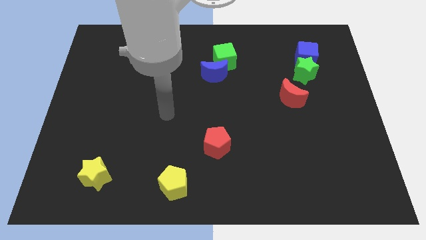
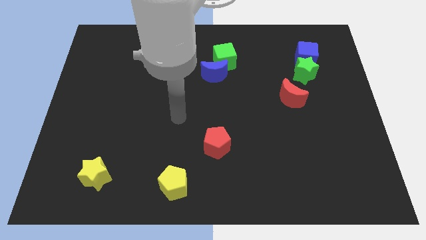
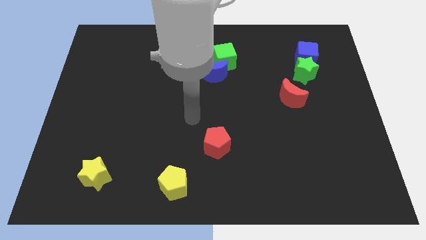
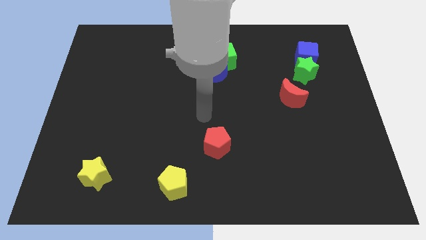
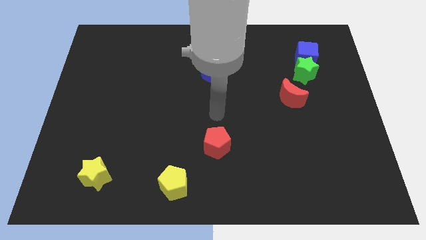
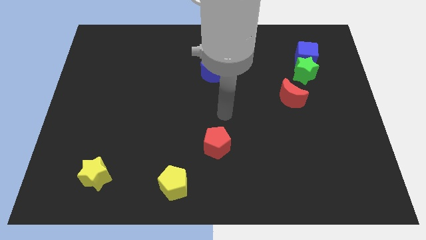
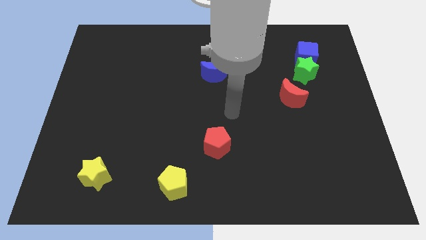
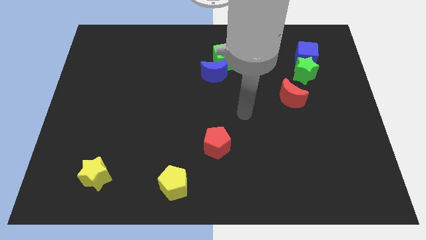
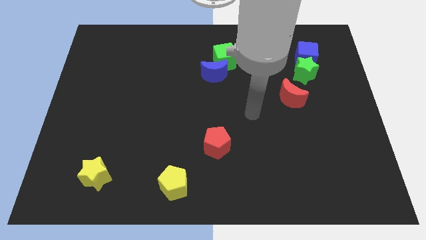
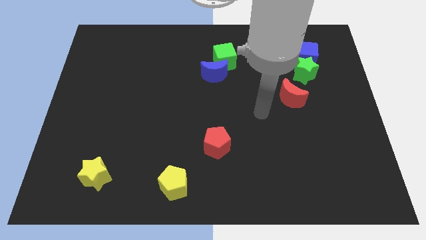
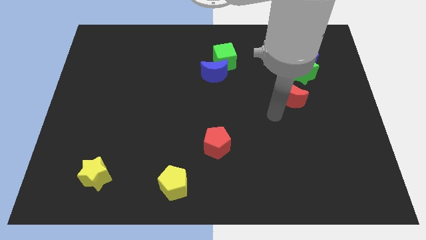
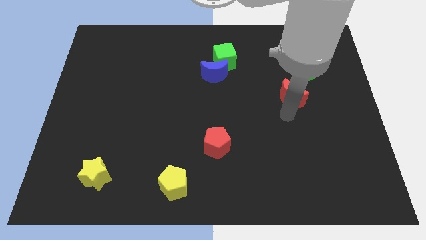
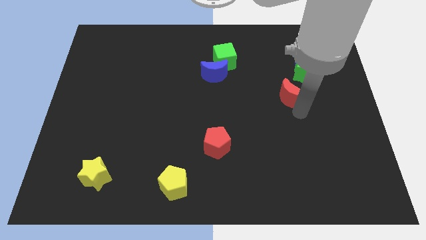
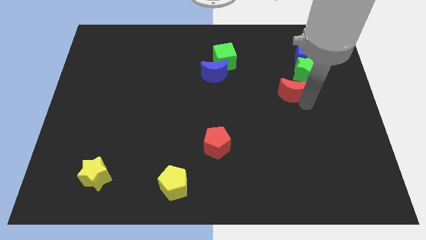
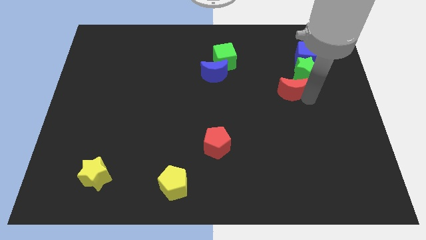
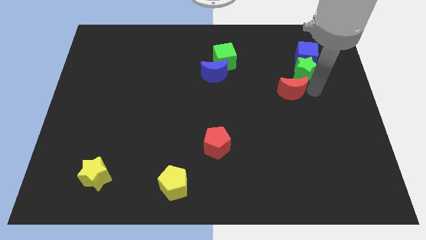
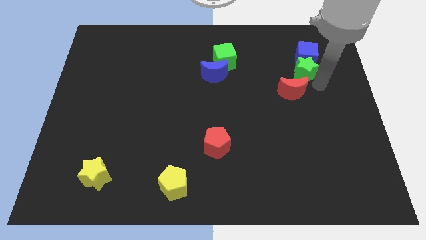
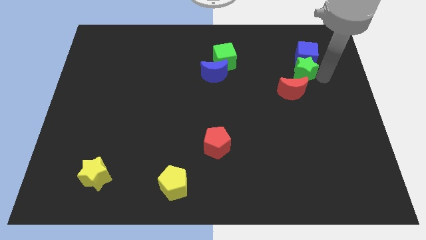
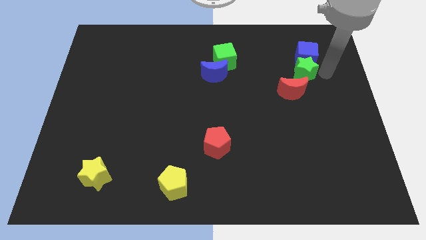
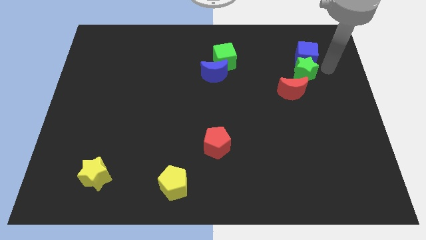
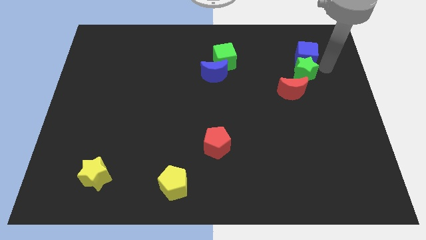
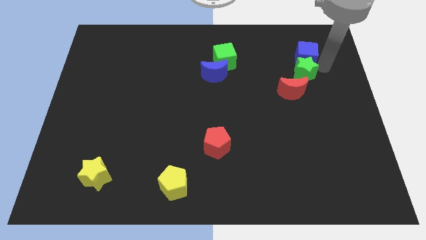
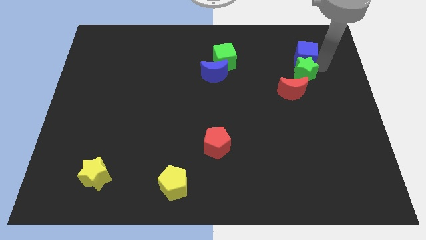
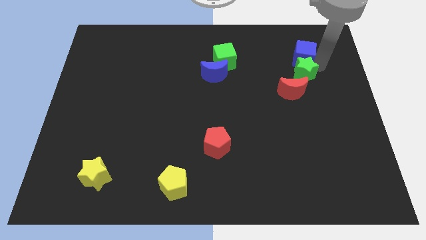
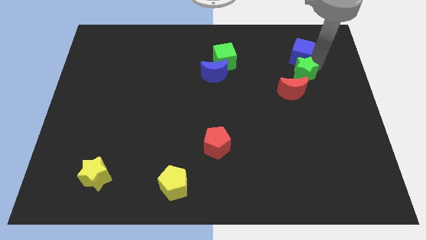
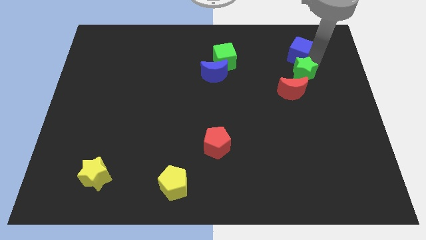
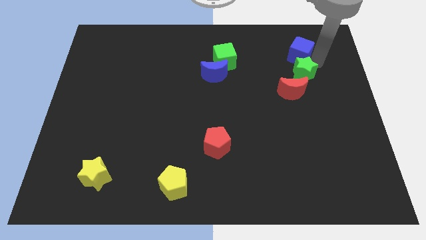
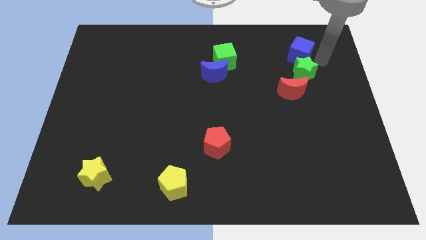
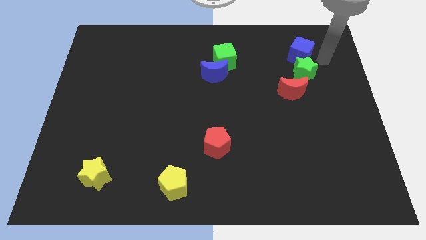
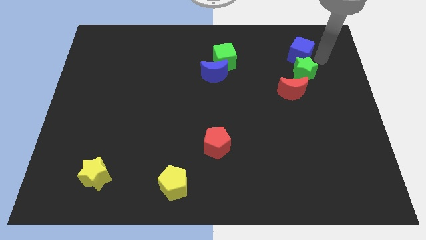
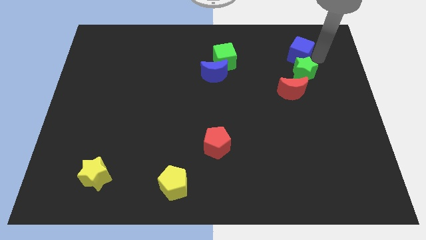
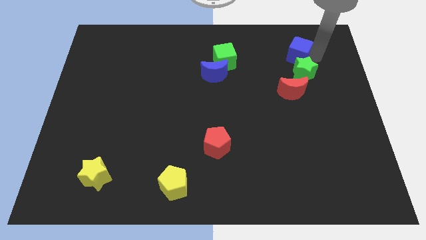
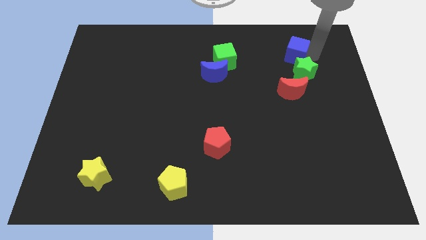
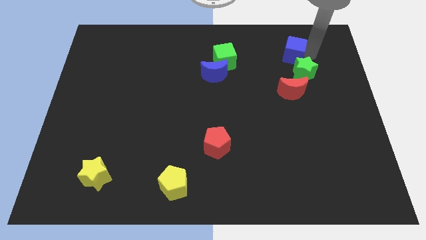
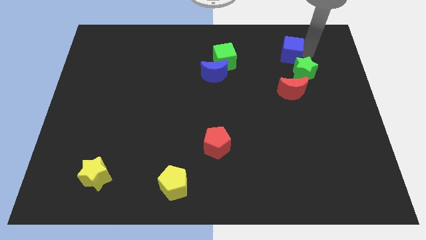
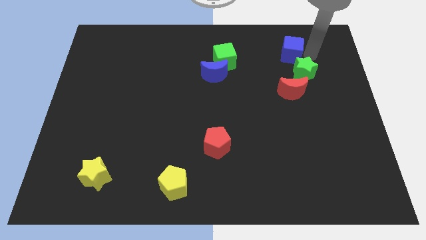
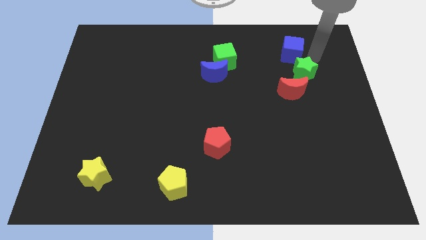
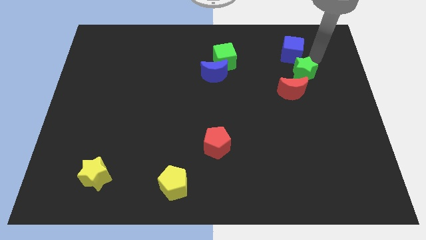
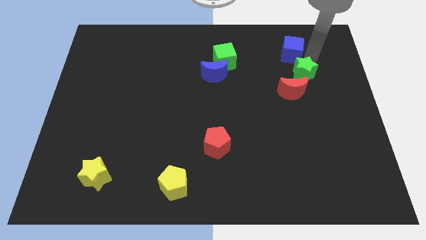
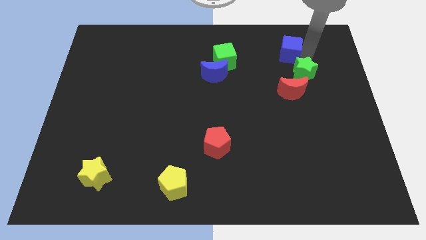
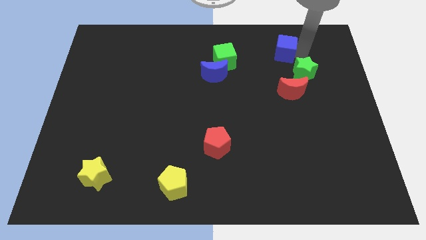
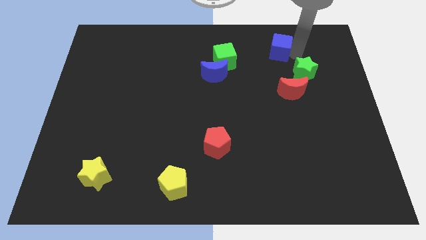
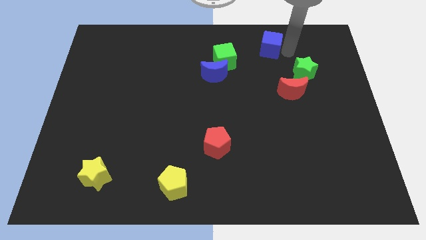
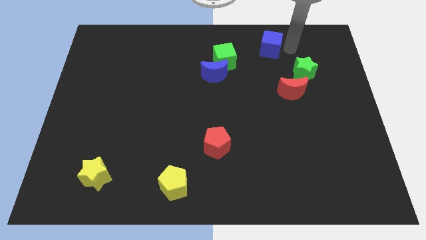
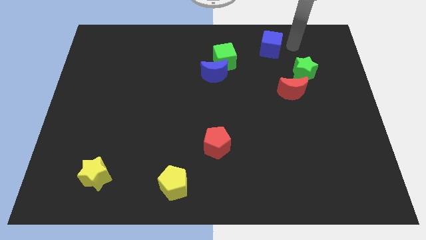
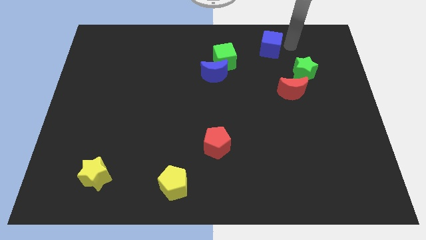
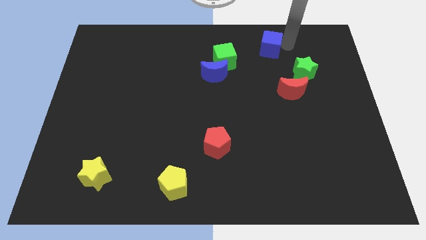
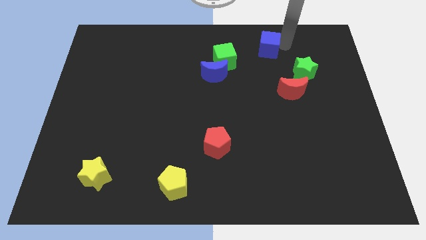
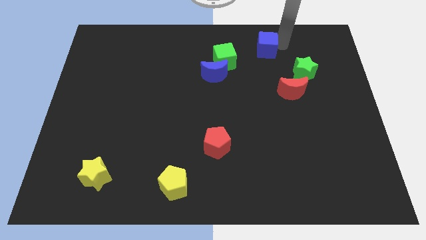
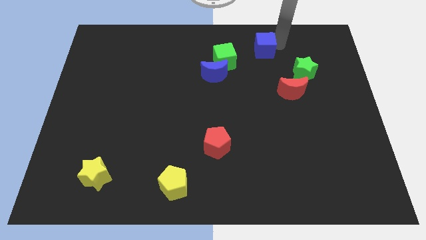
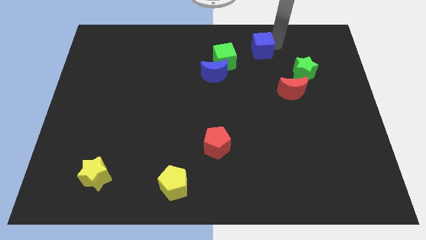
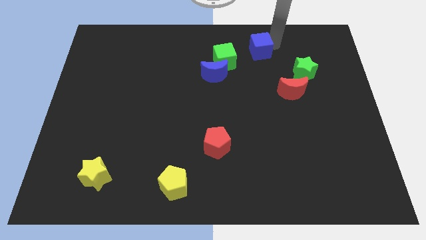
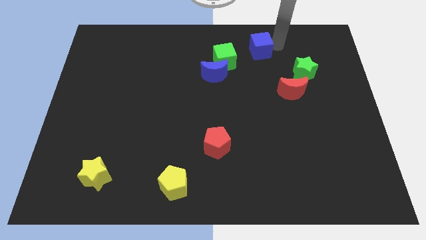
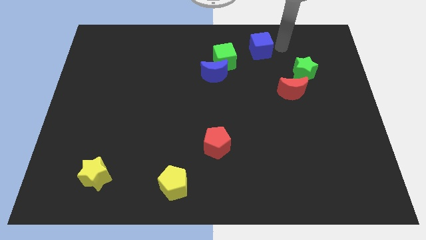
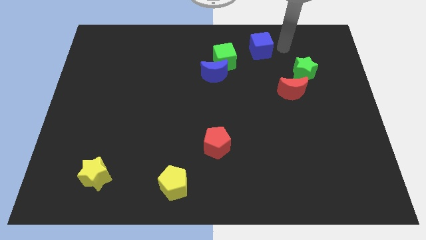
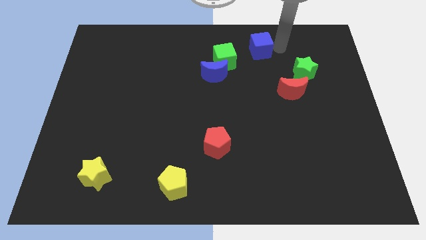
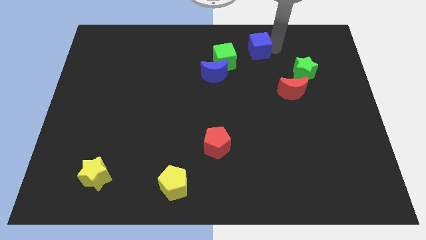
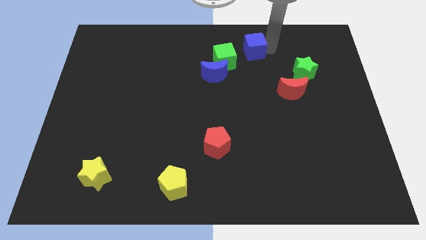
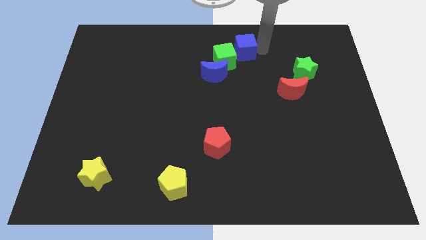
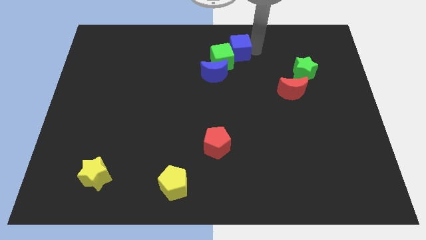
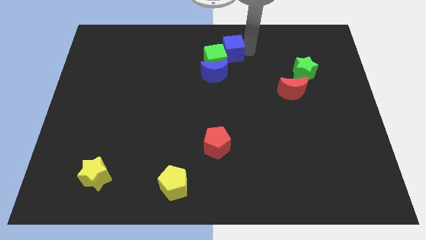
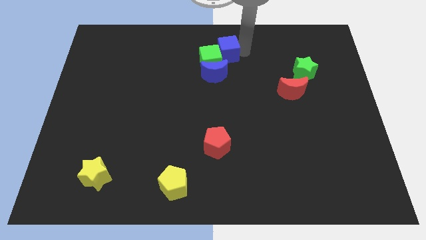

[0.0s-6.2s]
slide the blue cube left

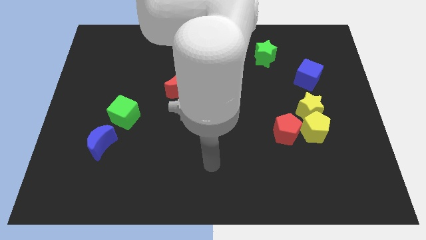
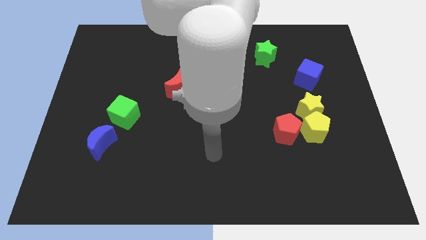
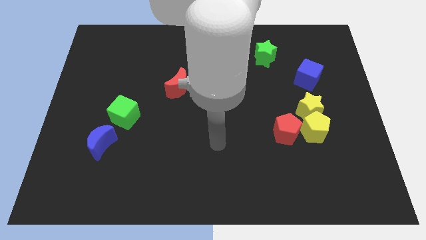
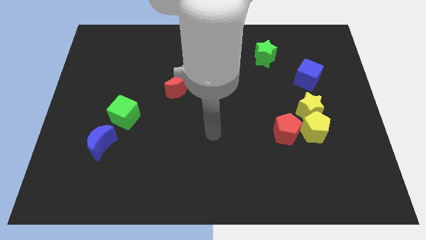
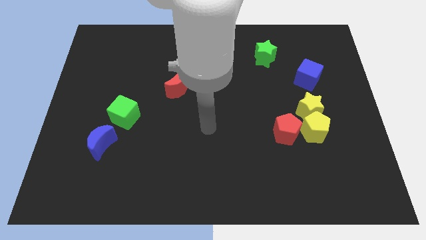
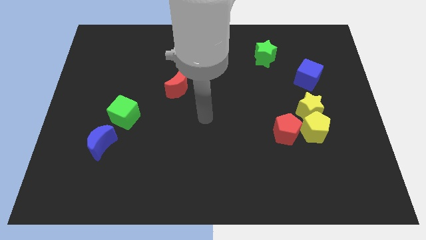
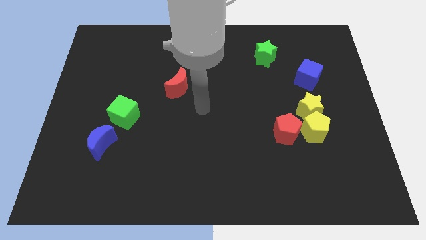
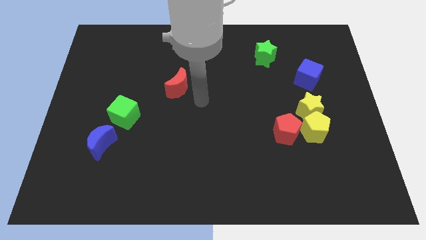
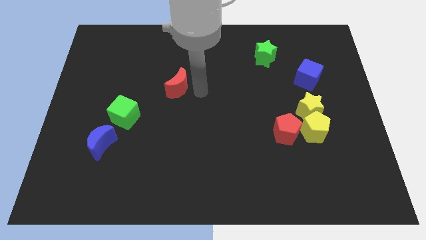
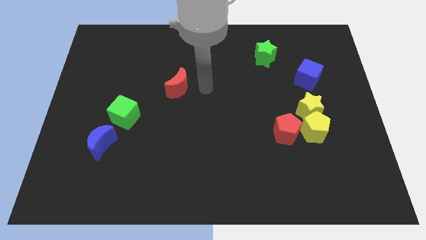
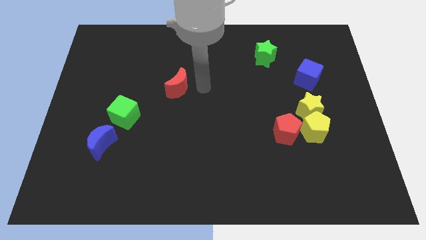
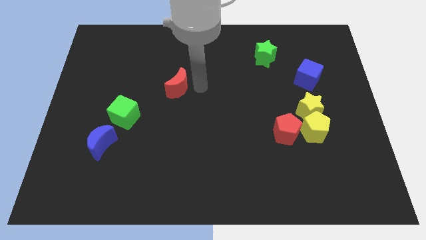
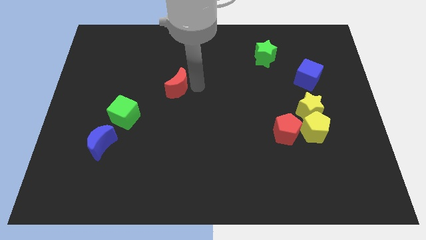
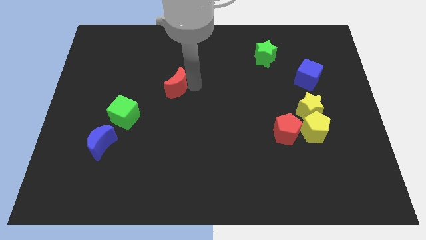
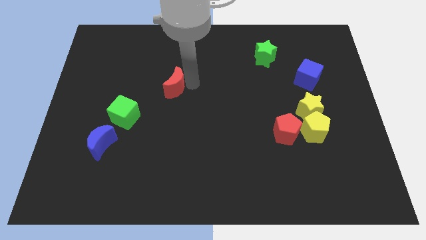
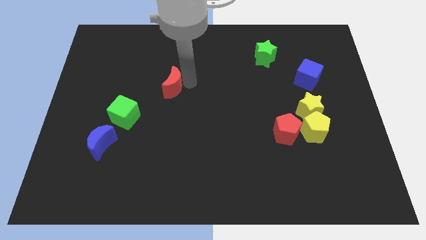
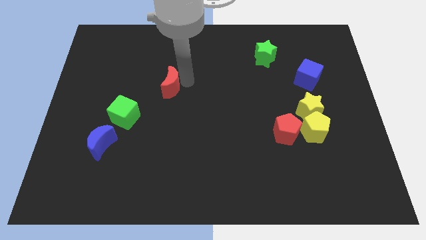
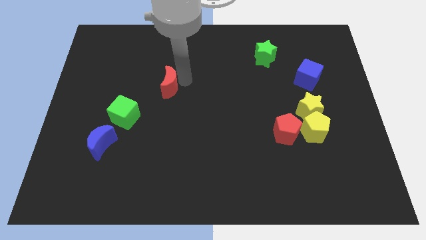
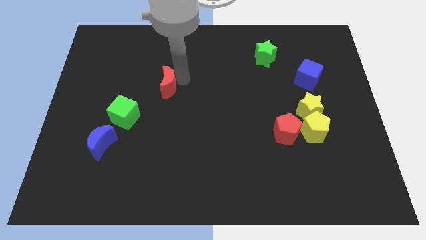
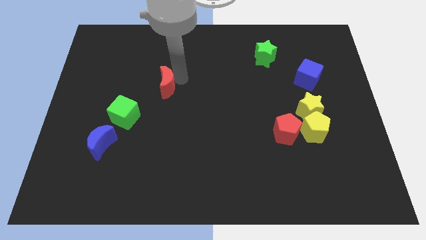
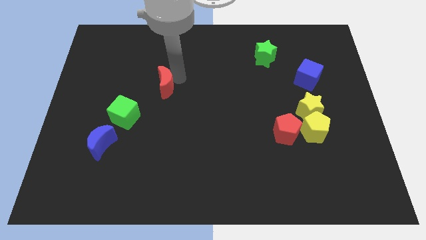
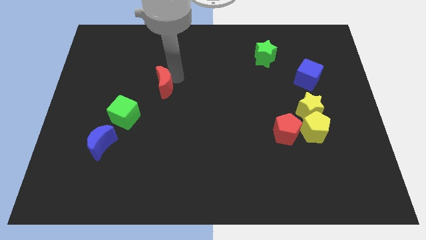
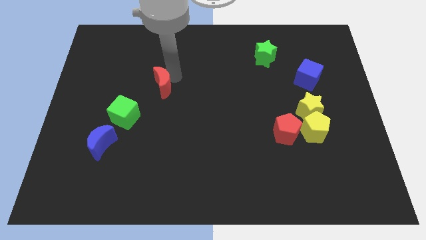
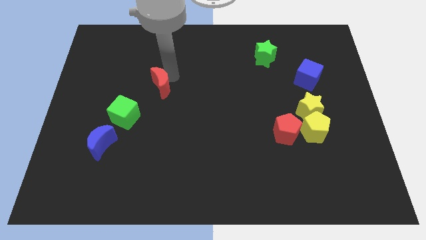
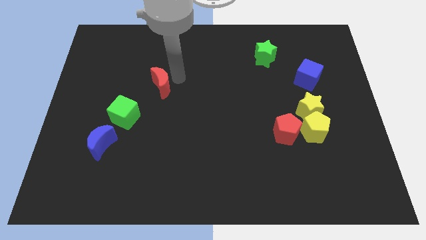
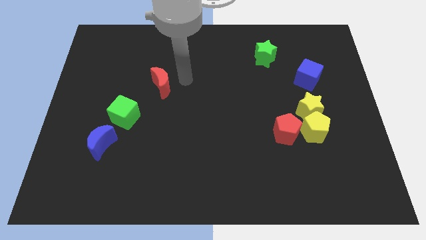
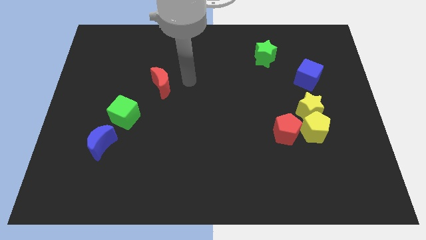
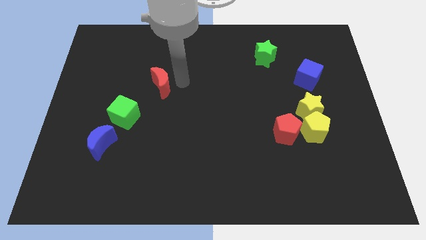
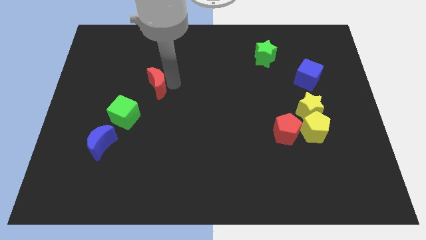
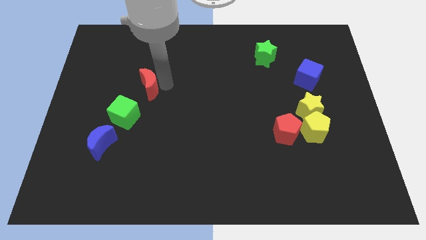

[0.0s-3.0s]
slide the red moon a little bit to the left
